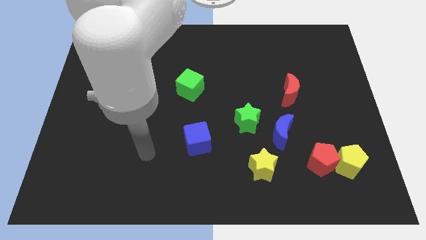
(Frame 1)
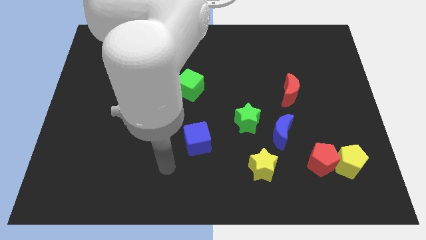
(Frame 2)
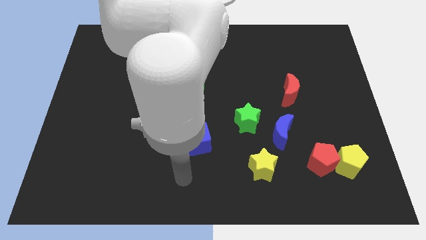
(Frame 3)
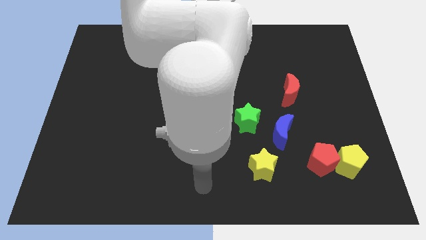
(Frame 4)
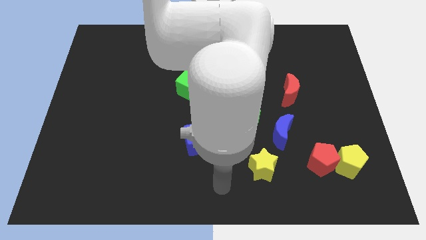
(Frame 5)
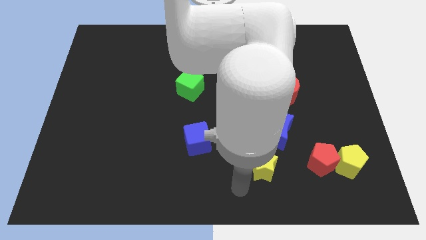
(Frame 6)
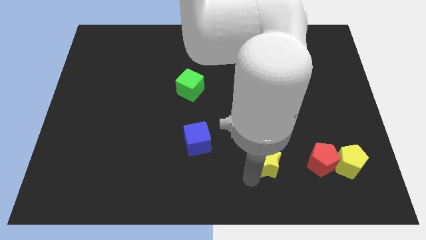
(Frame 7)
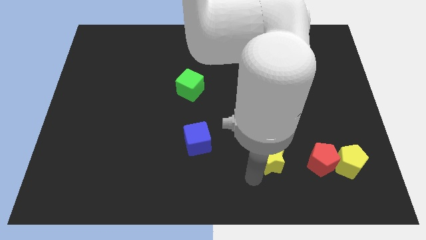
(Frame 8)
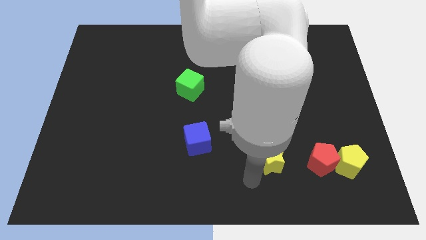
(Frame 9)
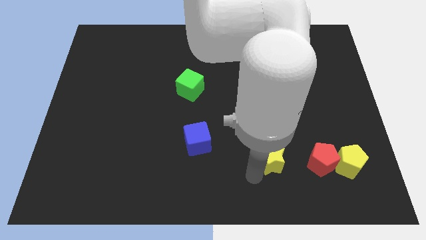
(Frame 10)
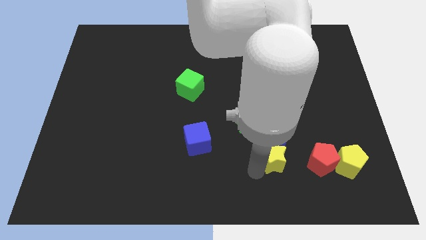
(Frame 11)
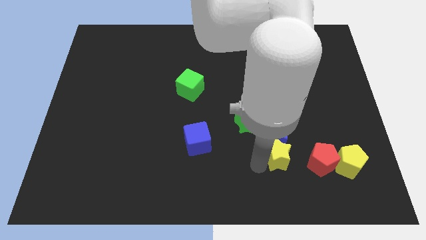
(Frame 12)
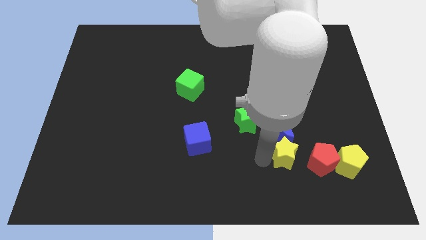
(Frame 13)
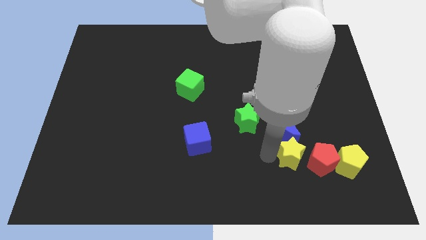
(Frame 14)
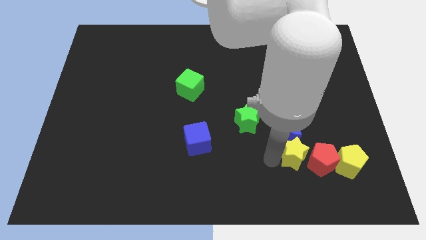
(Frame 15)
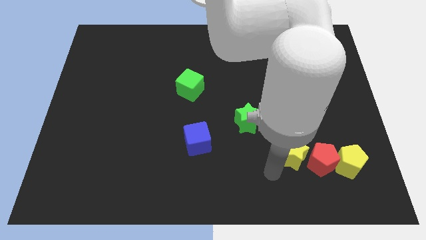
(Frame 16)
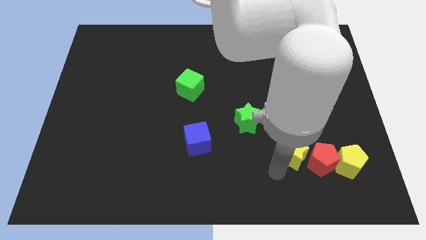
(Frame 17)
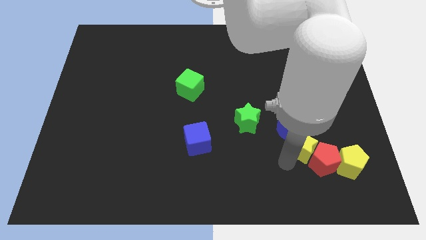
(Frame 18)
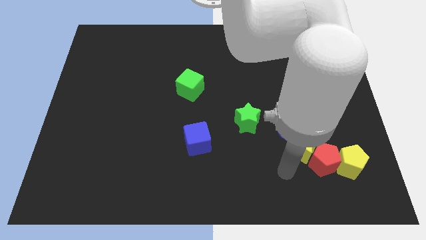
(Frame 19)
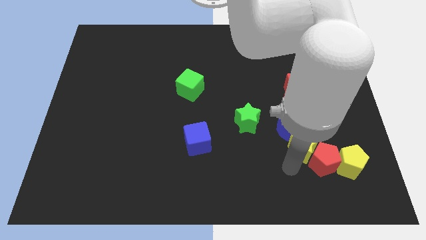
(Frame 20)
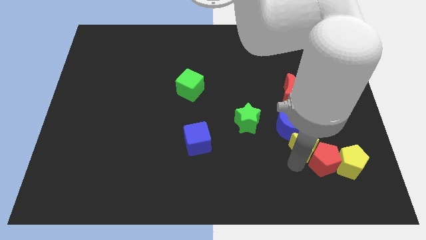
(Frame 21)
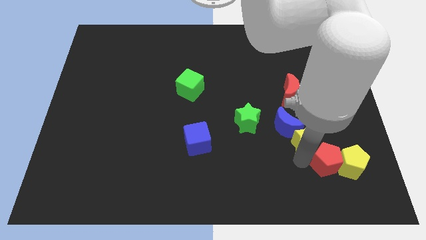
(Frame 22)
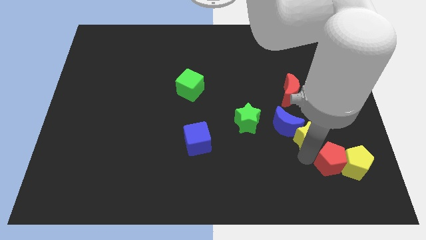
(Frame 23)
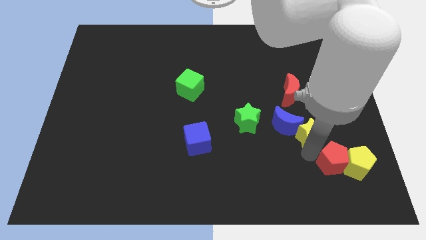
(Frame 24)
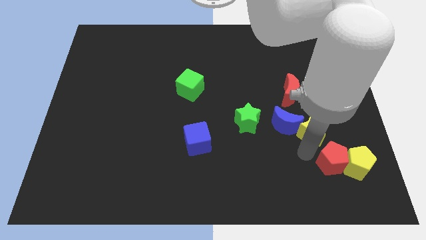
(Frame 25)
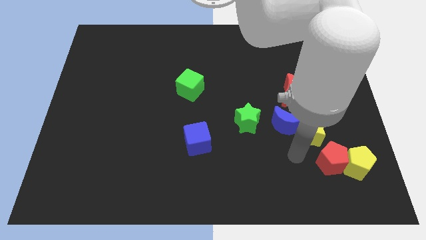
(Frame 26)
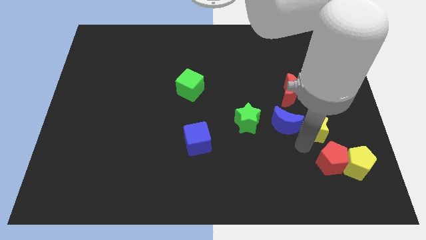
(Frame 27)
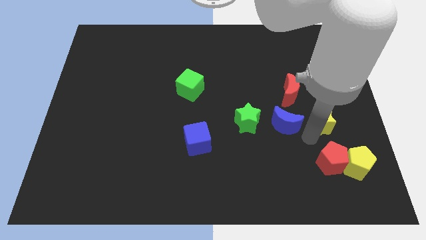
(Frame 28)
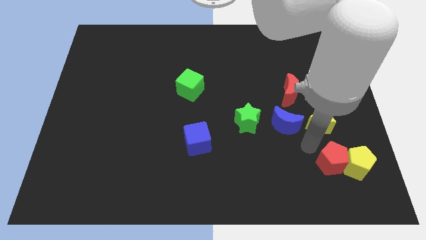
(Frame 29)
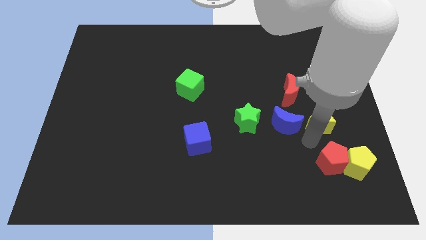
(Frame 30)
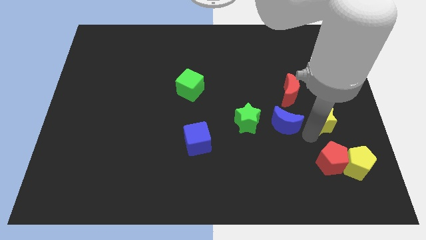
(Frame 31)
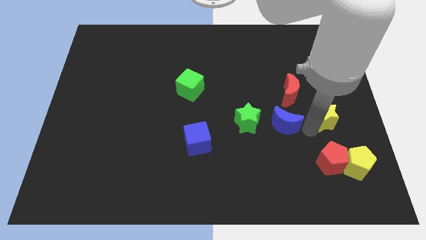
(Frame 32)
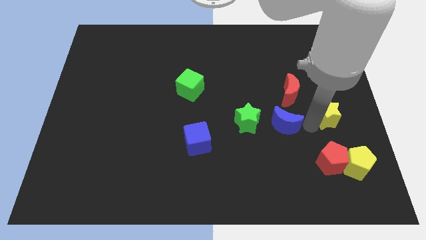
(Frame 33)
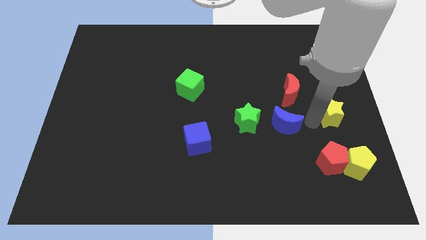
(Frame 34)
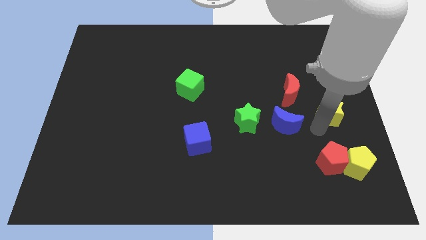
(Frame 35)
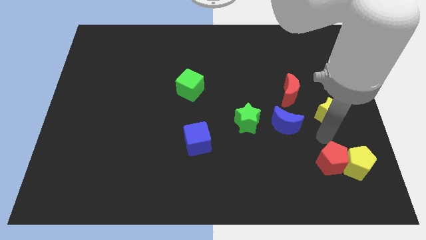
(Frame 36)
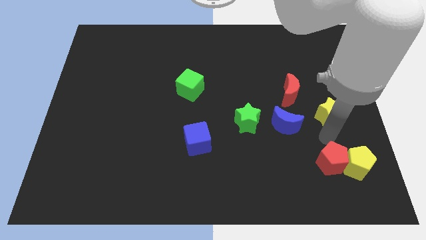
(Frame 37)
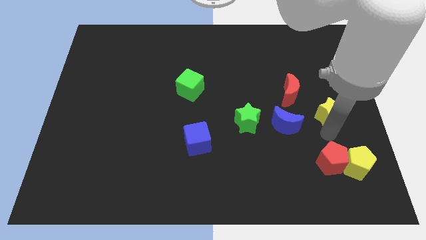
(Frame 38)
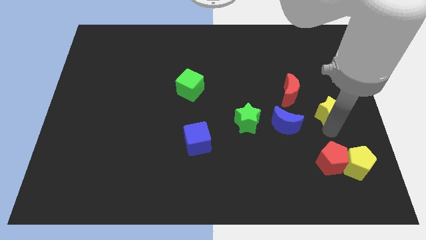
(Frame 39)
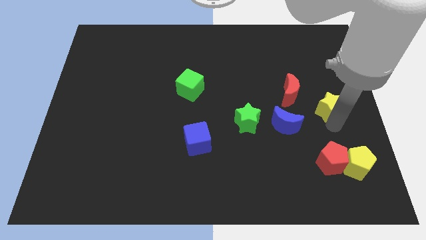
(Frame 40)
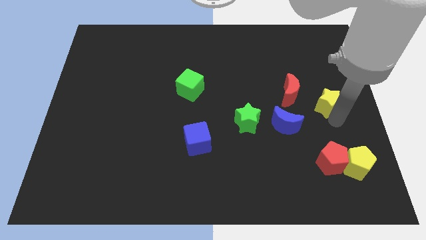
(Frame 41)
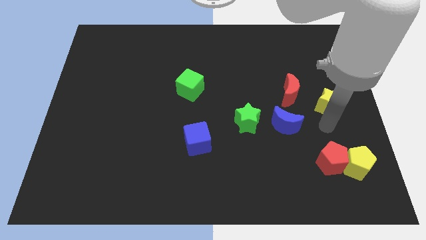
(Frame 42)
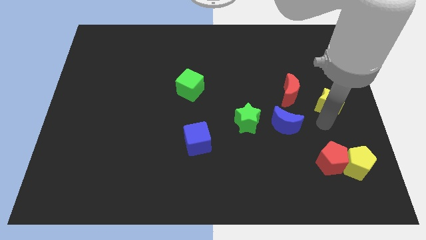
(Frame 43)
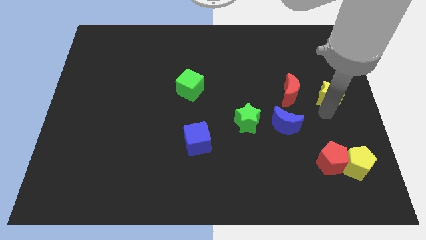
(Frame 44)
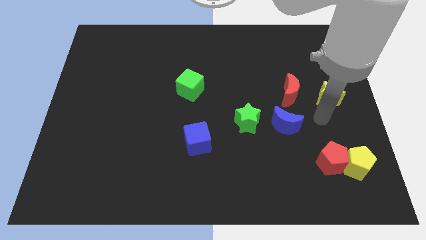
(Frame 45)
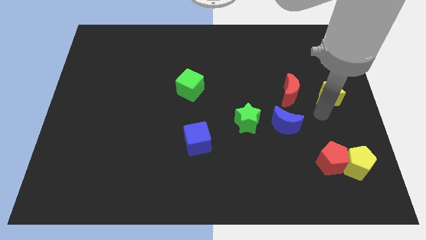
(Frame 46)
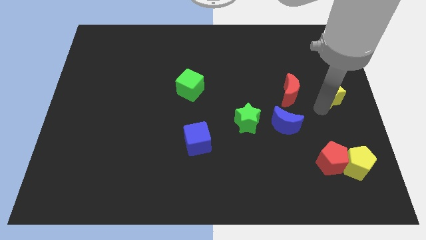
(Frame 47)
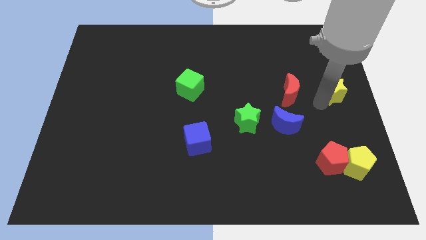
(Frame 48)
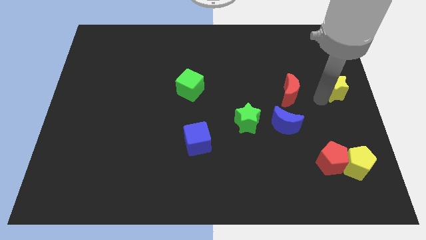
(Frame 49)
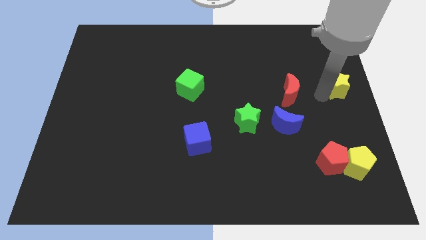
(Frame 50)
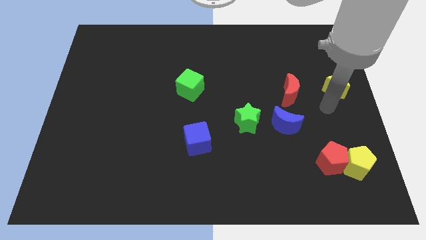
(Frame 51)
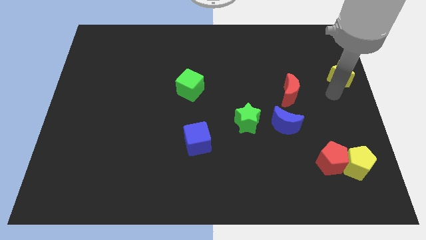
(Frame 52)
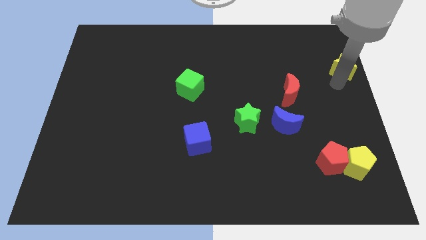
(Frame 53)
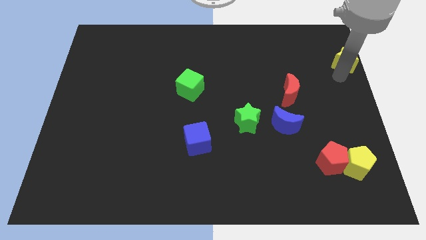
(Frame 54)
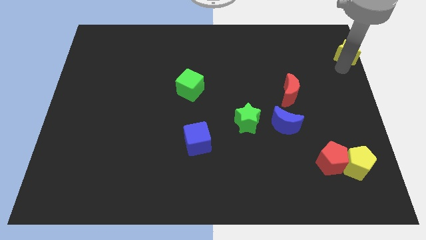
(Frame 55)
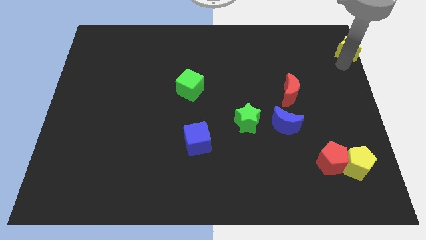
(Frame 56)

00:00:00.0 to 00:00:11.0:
move the yellow star to the top right of the board

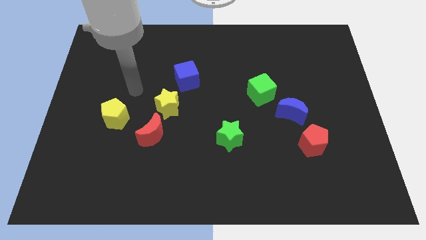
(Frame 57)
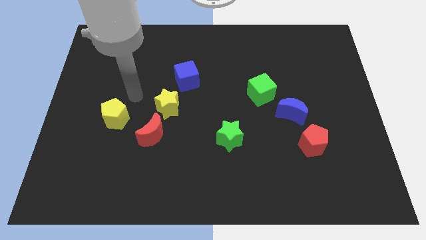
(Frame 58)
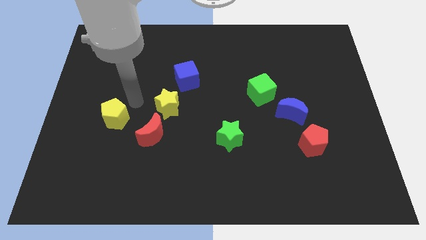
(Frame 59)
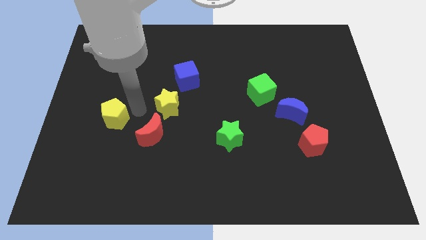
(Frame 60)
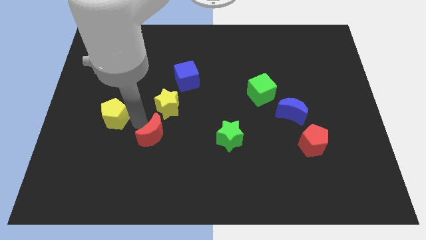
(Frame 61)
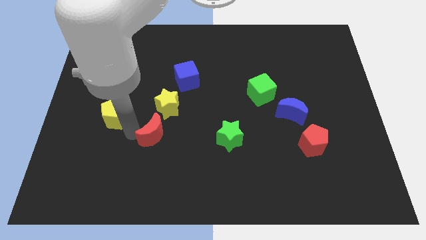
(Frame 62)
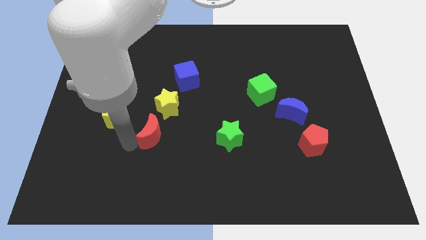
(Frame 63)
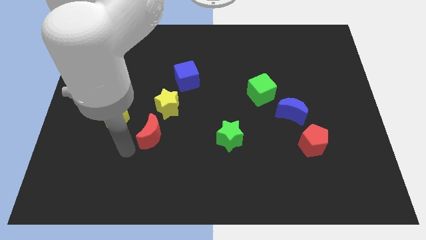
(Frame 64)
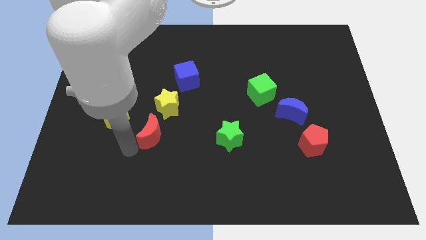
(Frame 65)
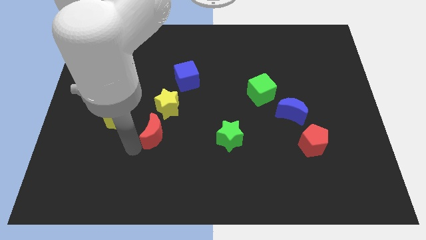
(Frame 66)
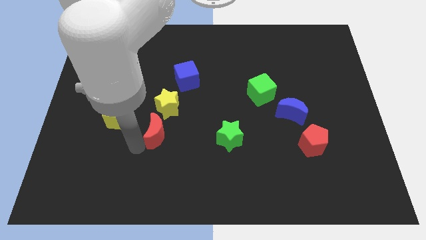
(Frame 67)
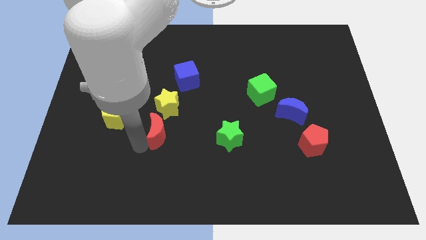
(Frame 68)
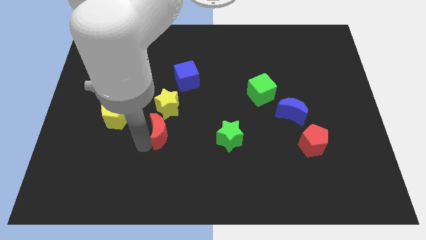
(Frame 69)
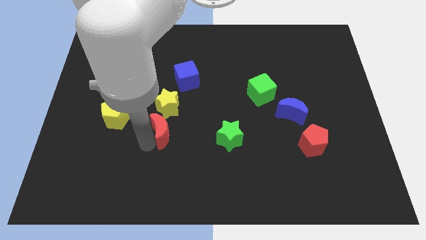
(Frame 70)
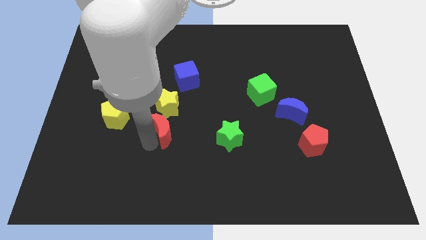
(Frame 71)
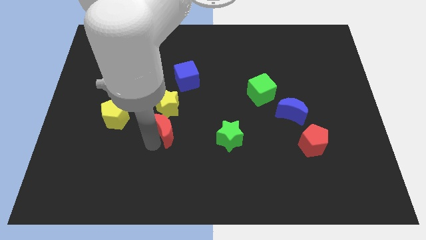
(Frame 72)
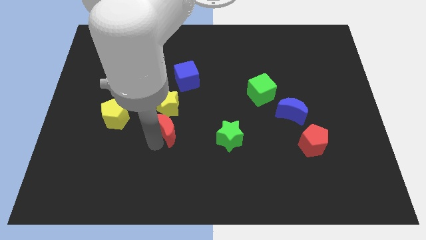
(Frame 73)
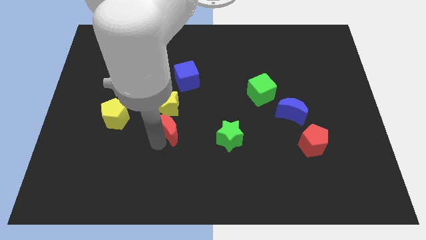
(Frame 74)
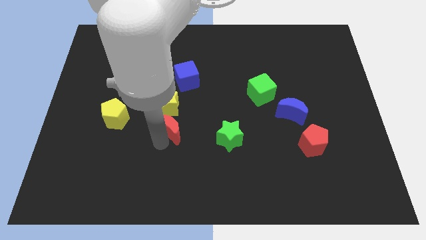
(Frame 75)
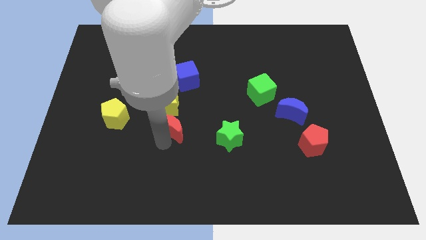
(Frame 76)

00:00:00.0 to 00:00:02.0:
slide the red moon to the middle
